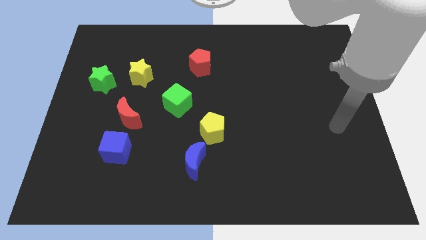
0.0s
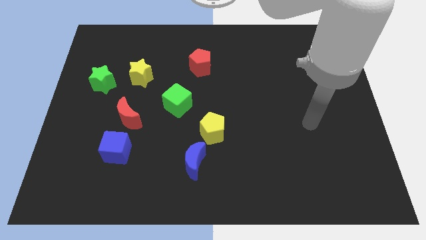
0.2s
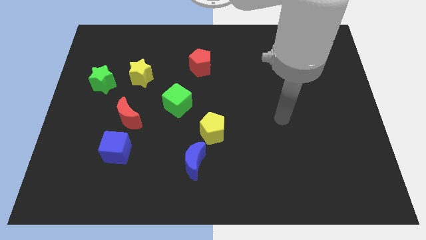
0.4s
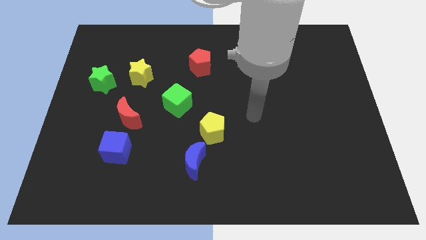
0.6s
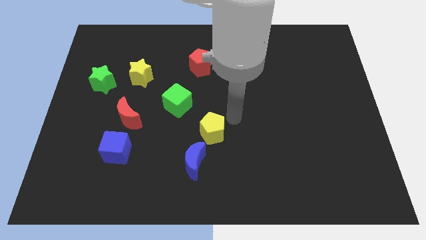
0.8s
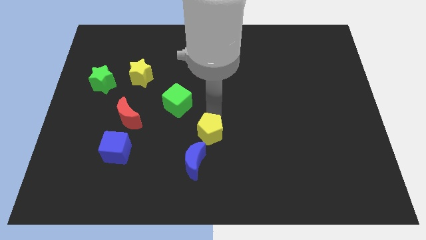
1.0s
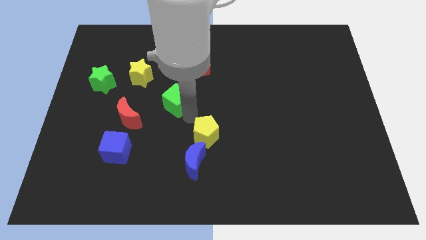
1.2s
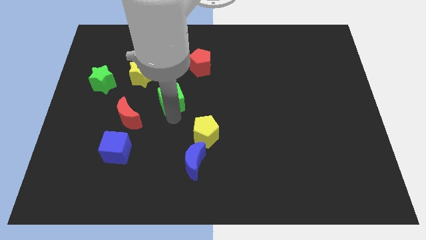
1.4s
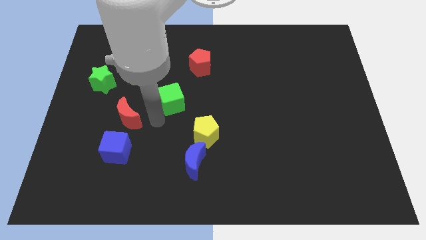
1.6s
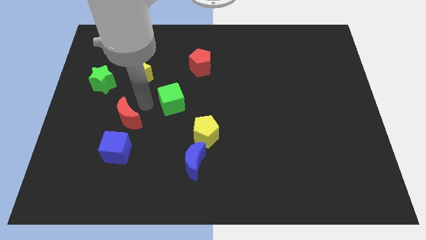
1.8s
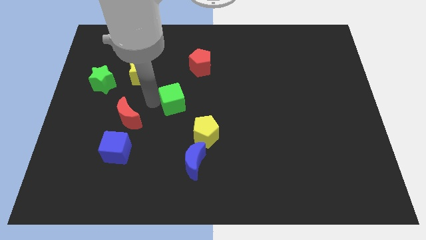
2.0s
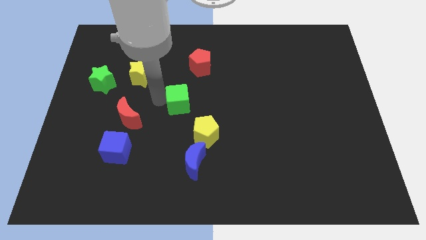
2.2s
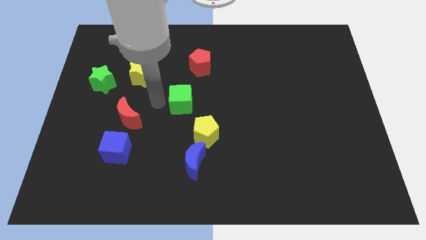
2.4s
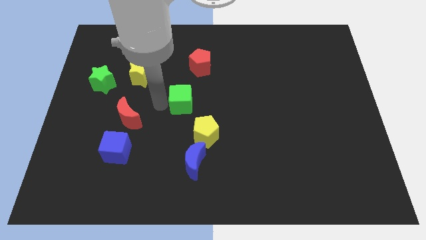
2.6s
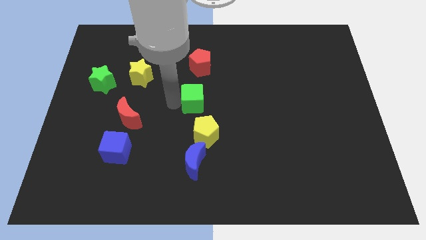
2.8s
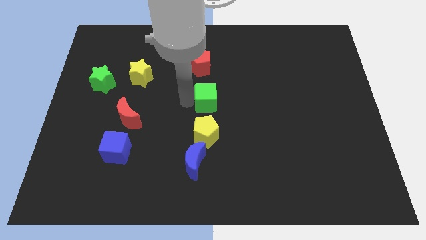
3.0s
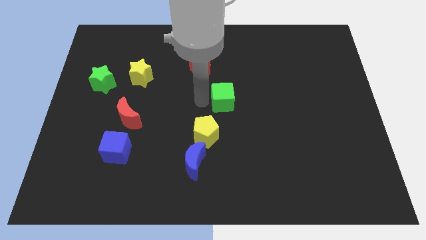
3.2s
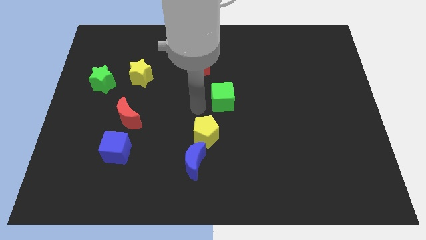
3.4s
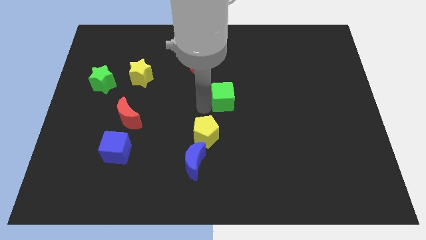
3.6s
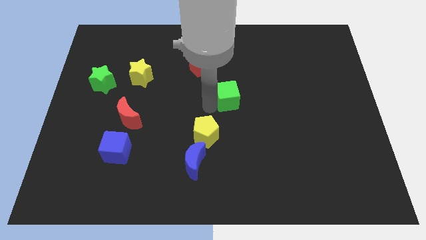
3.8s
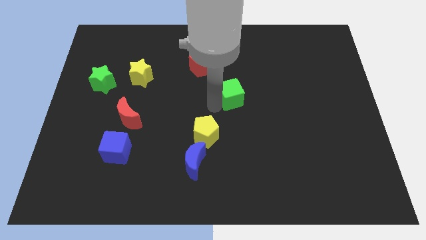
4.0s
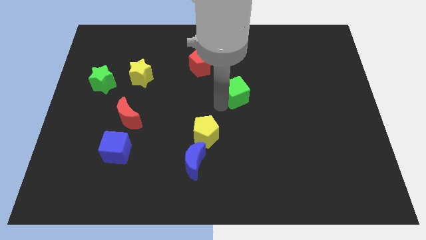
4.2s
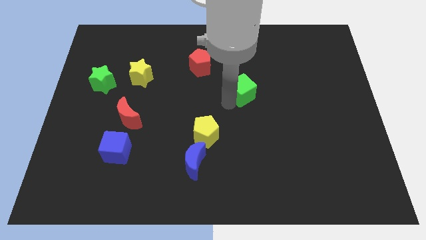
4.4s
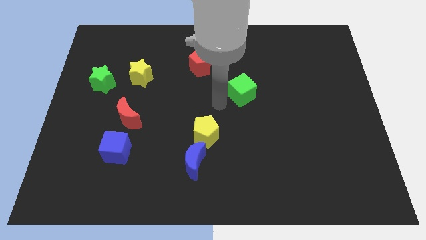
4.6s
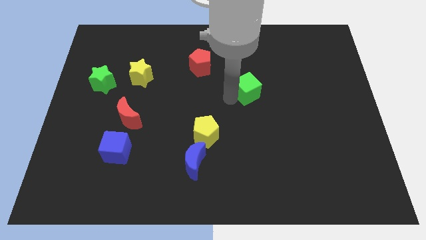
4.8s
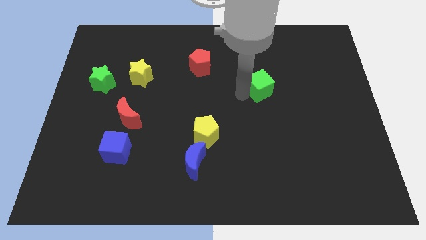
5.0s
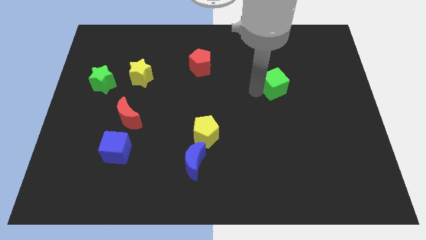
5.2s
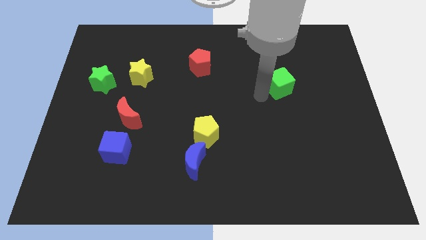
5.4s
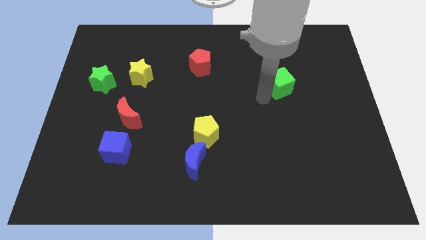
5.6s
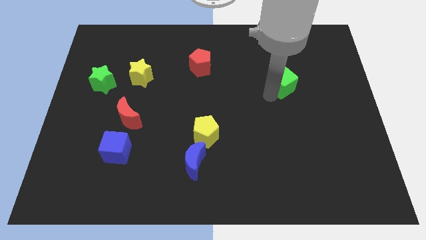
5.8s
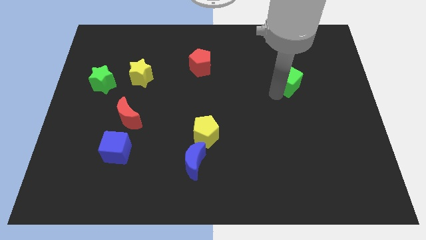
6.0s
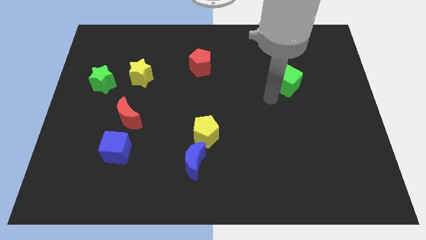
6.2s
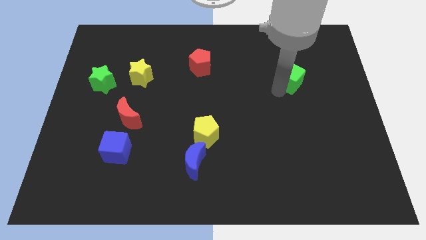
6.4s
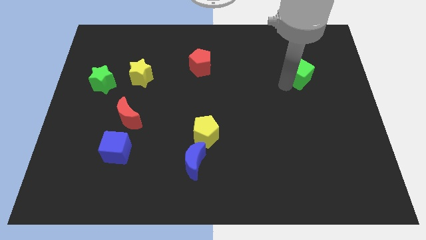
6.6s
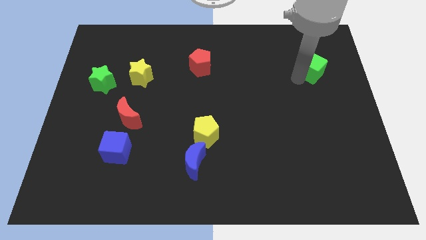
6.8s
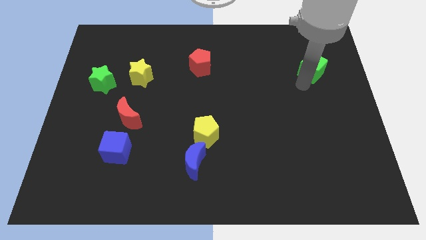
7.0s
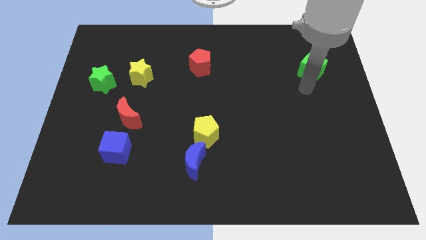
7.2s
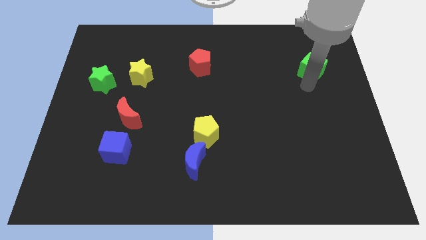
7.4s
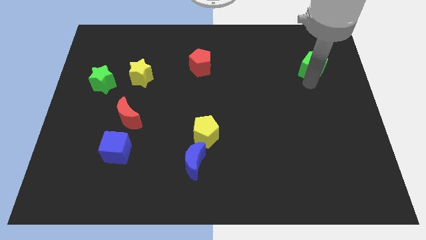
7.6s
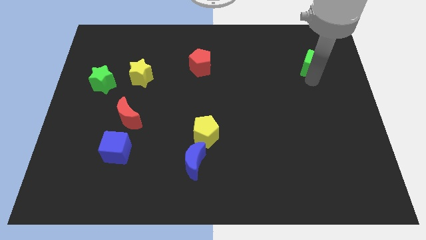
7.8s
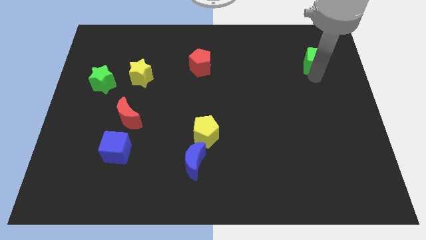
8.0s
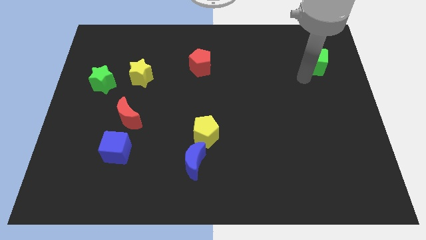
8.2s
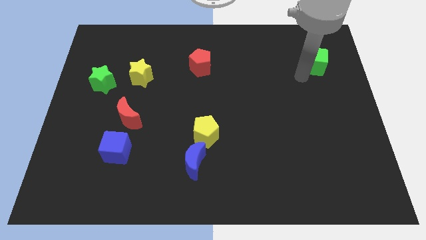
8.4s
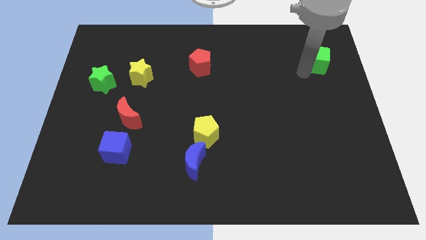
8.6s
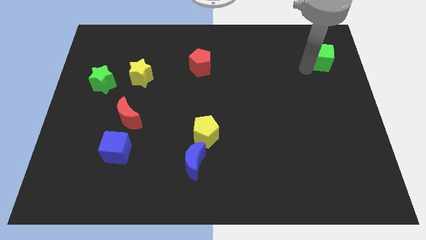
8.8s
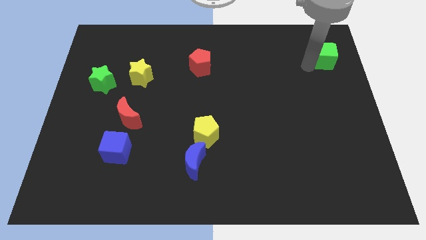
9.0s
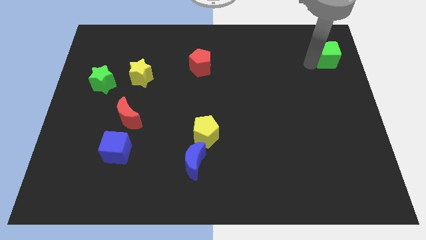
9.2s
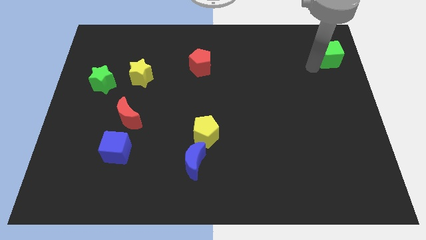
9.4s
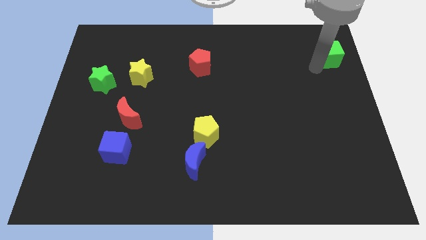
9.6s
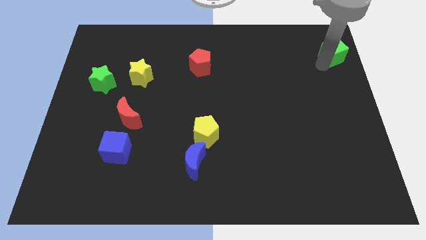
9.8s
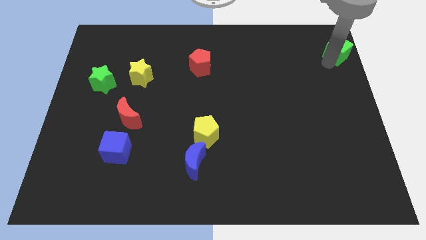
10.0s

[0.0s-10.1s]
move the green cube to the top right of the board

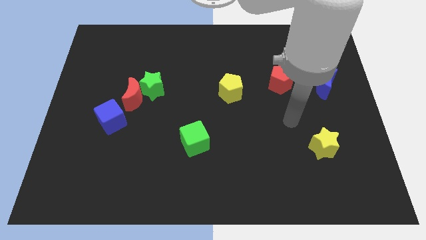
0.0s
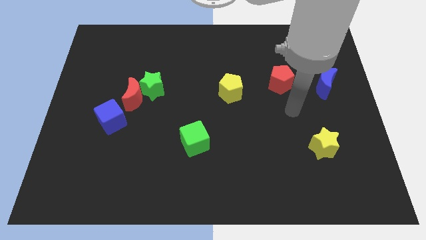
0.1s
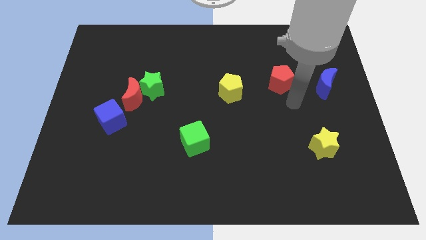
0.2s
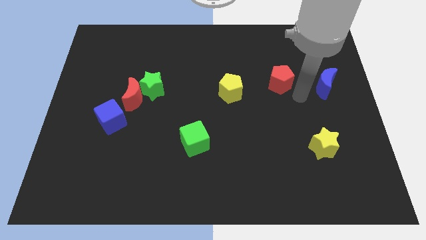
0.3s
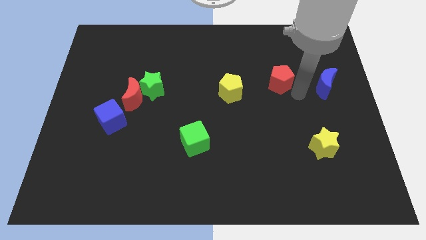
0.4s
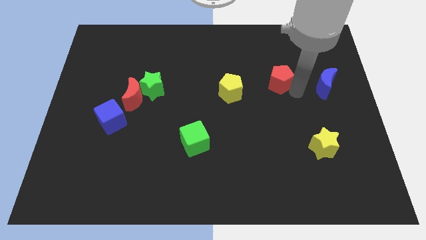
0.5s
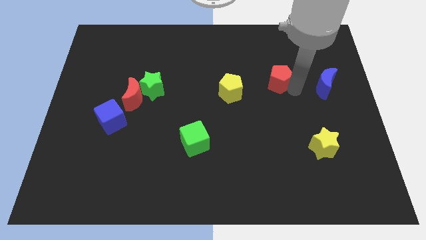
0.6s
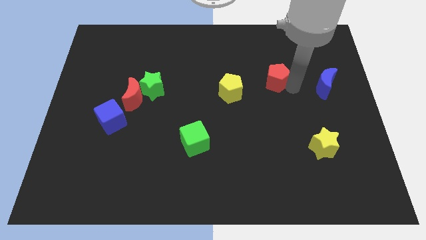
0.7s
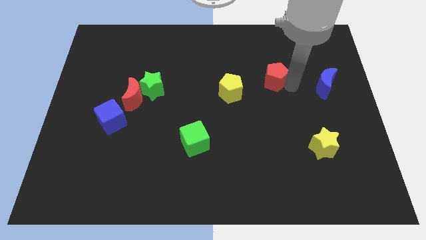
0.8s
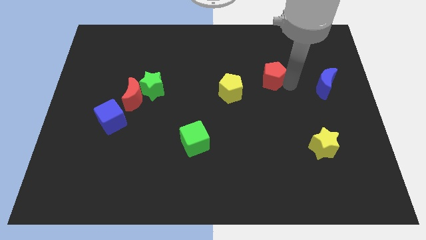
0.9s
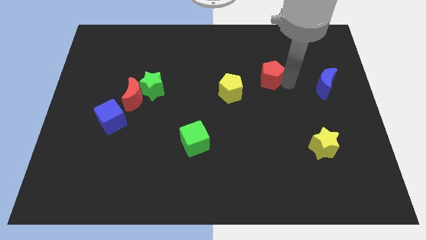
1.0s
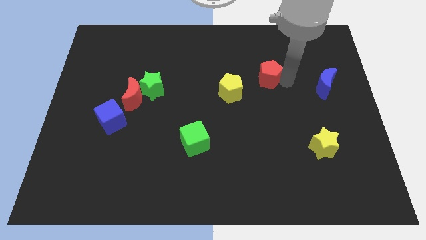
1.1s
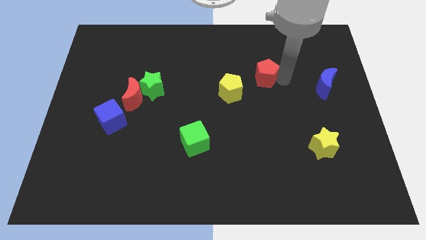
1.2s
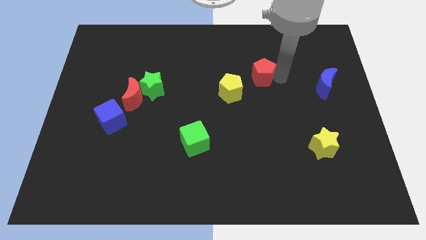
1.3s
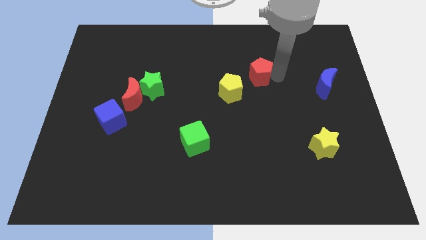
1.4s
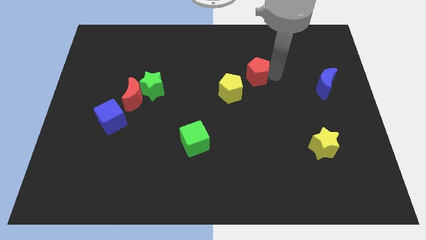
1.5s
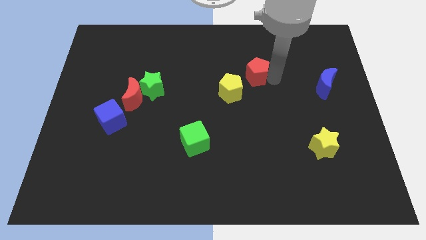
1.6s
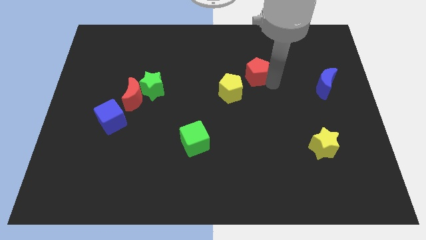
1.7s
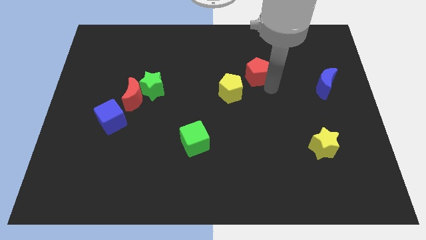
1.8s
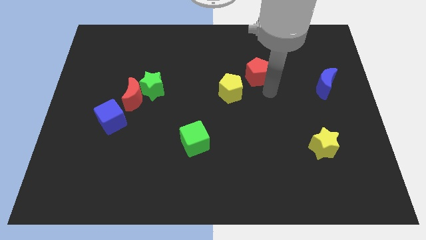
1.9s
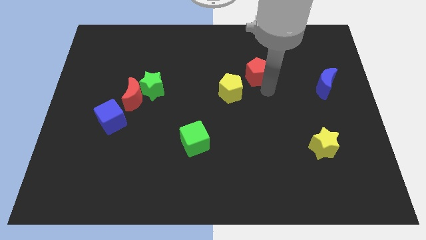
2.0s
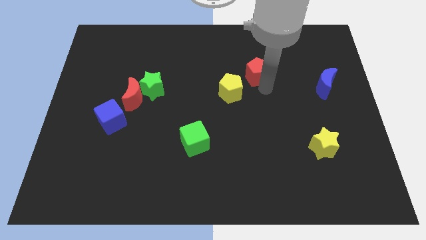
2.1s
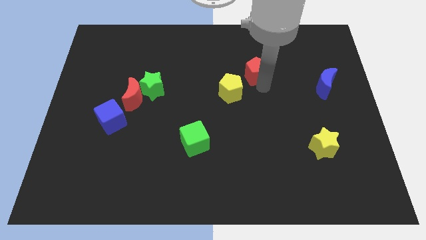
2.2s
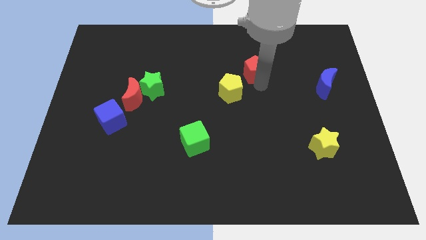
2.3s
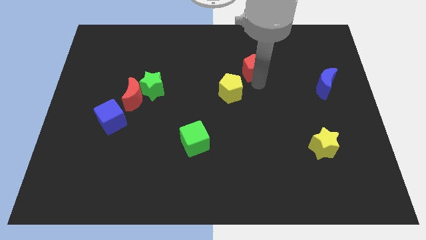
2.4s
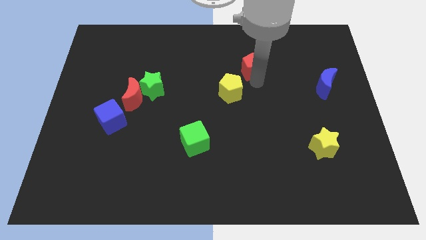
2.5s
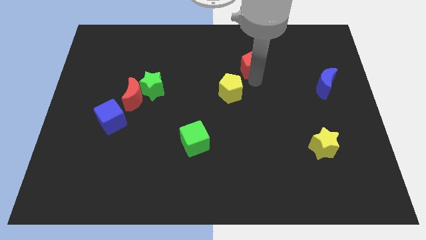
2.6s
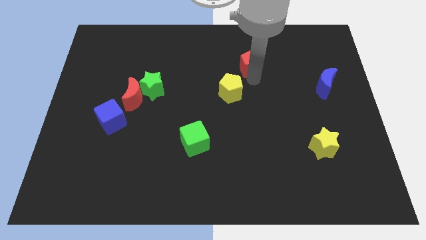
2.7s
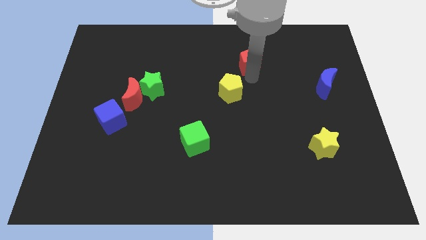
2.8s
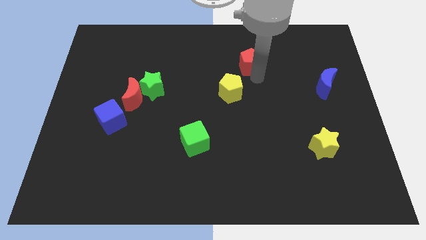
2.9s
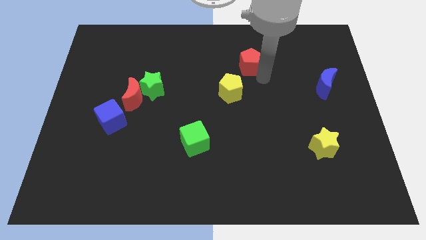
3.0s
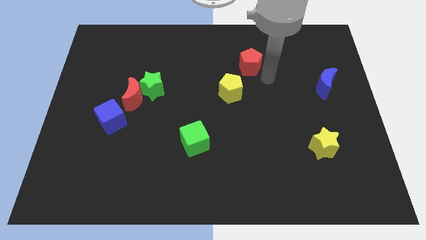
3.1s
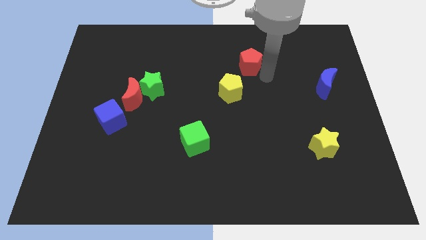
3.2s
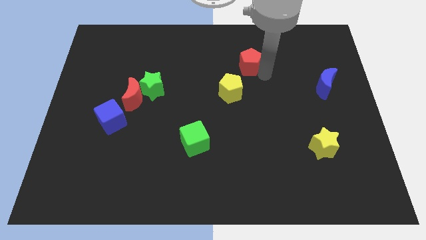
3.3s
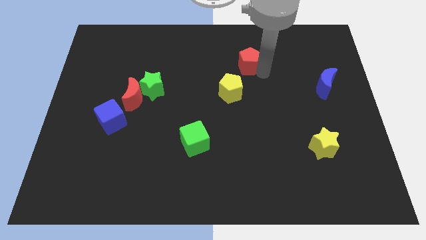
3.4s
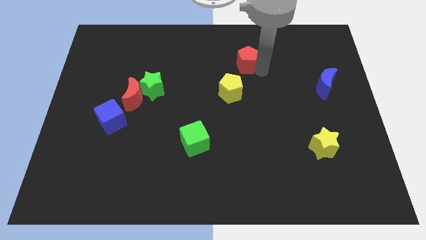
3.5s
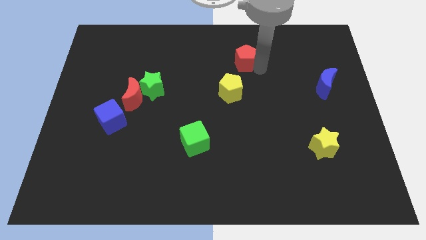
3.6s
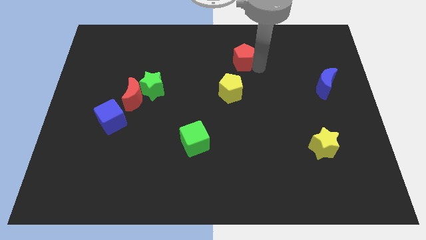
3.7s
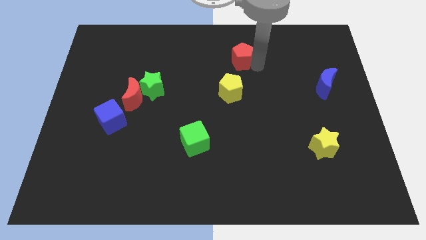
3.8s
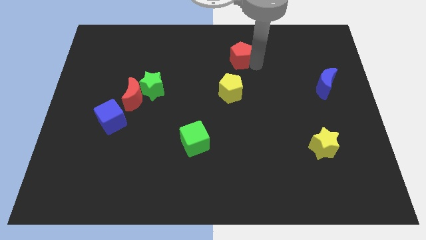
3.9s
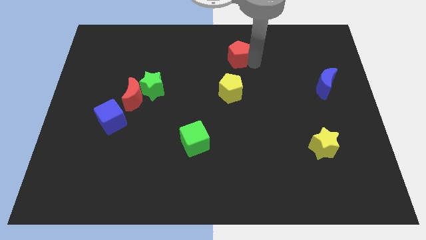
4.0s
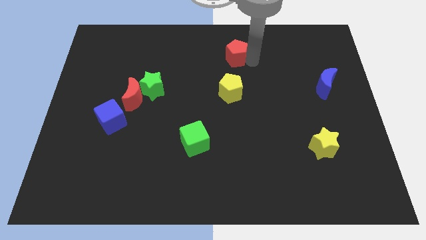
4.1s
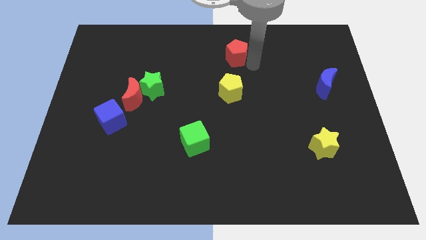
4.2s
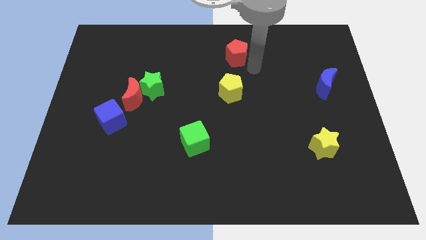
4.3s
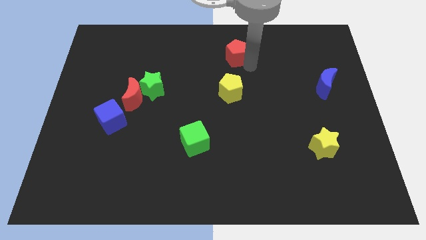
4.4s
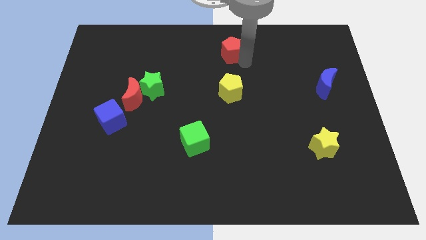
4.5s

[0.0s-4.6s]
push the red pentagon to the top side
